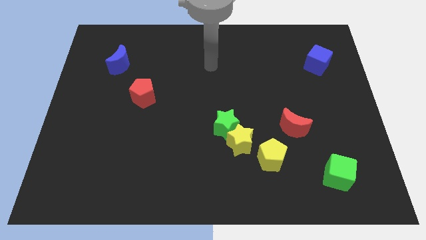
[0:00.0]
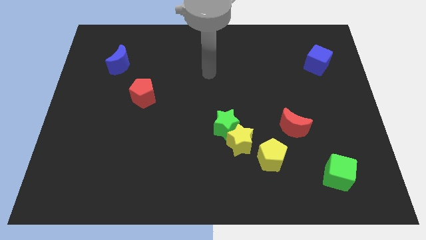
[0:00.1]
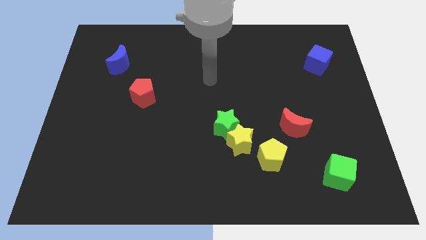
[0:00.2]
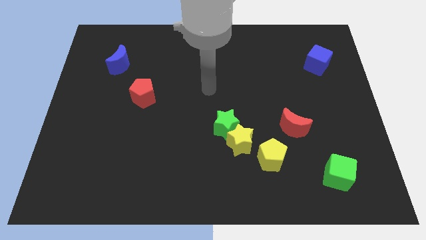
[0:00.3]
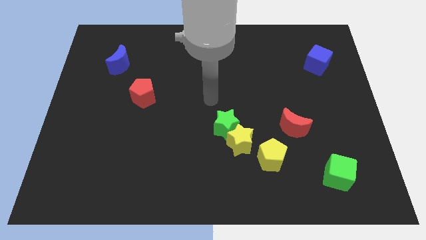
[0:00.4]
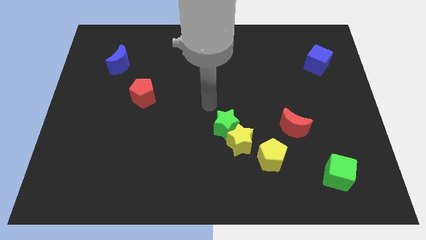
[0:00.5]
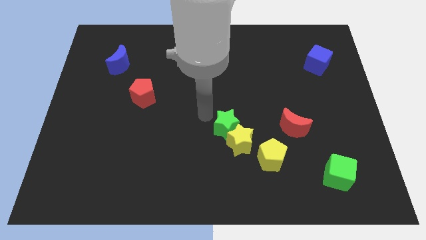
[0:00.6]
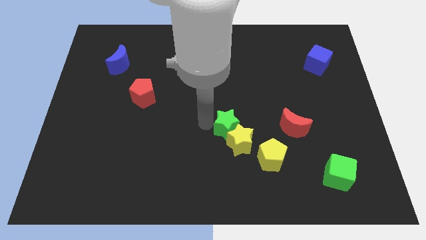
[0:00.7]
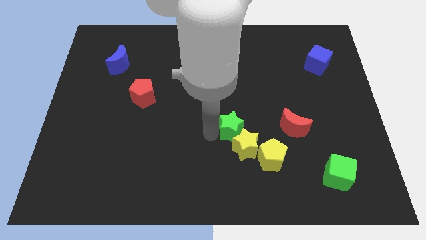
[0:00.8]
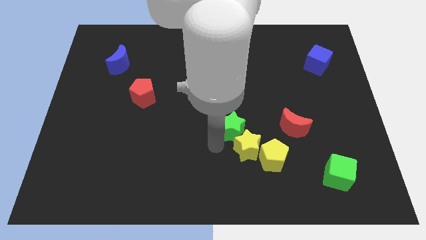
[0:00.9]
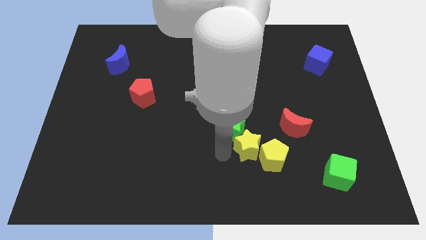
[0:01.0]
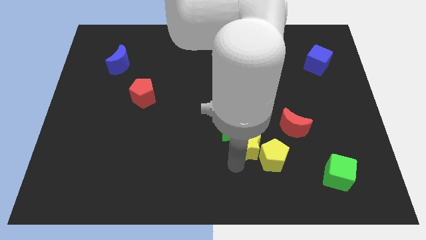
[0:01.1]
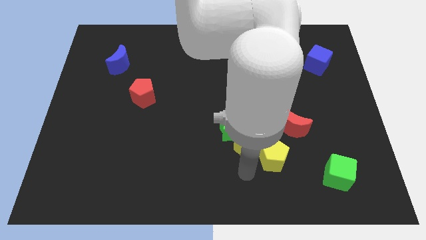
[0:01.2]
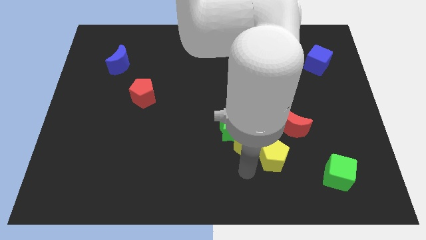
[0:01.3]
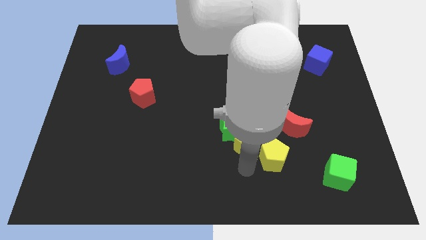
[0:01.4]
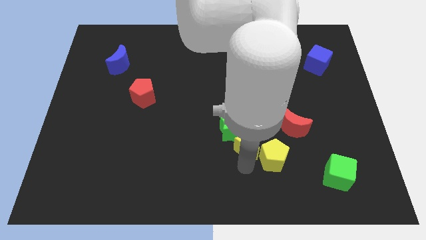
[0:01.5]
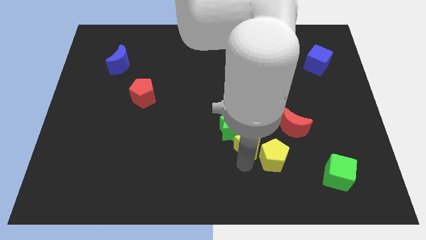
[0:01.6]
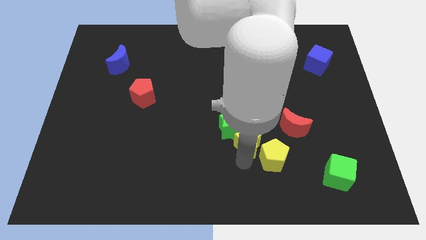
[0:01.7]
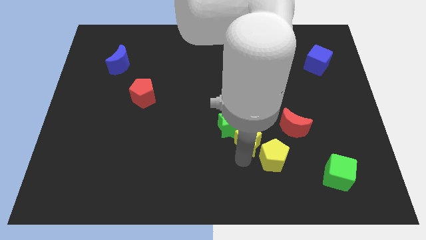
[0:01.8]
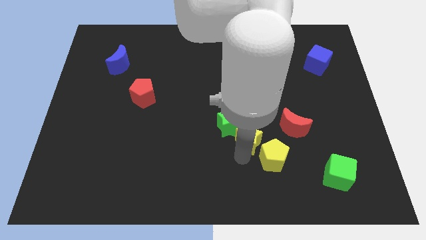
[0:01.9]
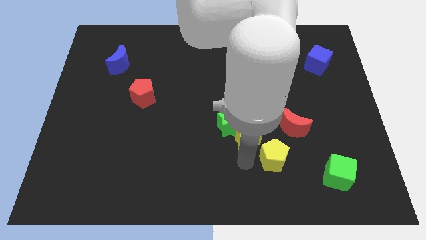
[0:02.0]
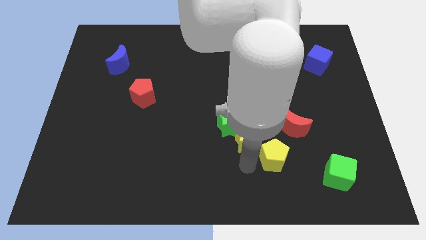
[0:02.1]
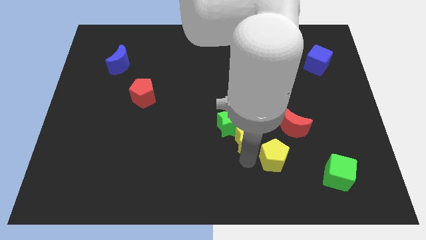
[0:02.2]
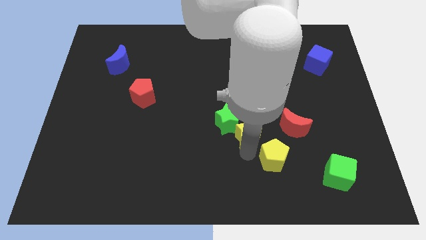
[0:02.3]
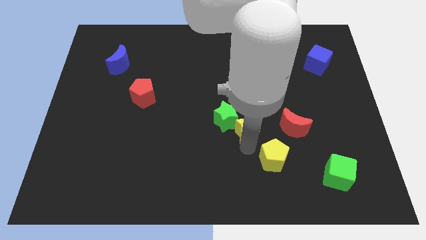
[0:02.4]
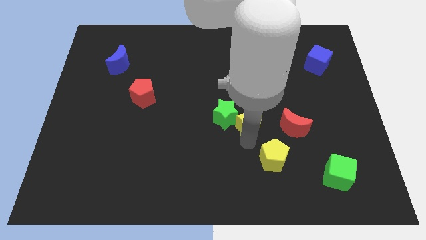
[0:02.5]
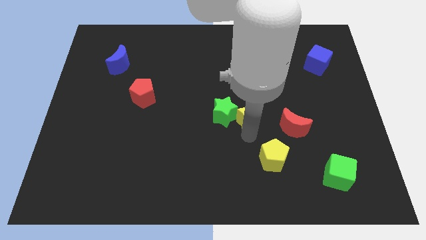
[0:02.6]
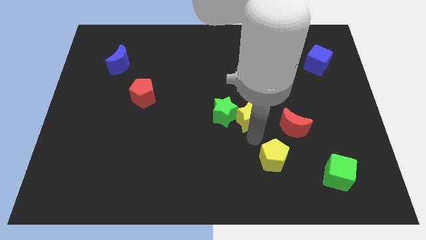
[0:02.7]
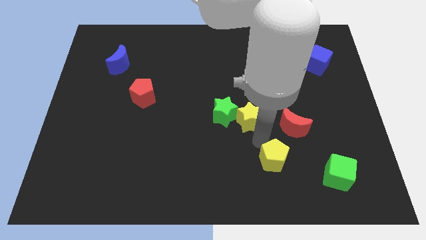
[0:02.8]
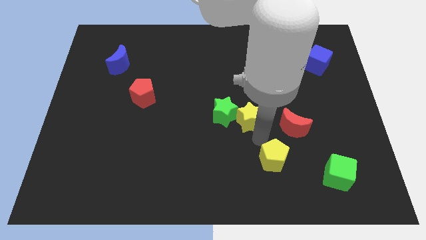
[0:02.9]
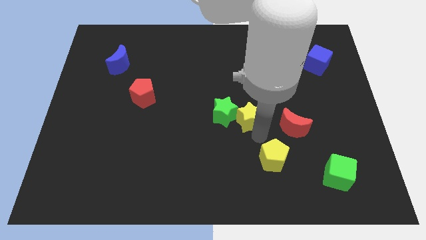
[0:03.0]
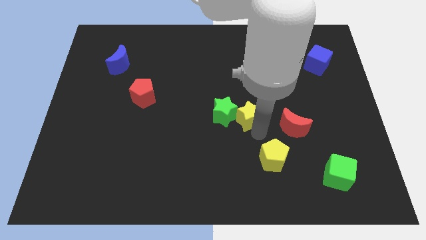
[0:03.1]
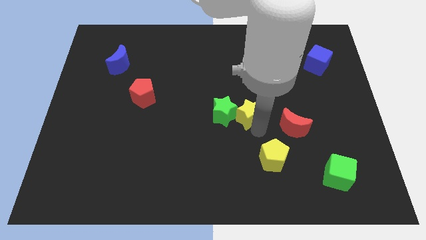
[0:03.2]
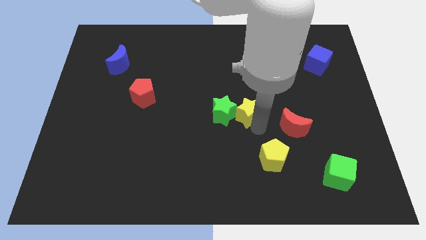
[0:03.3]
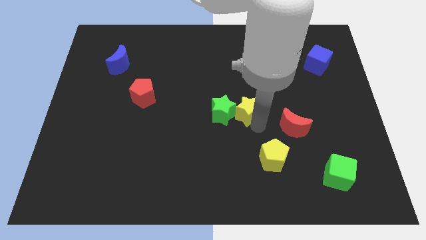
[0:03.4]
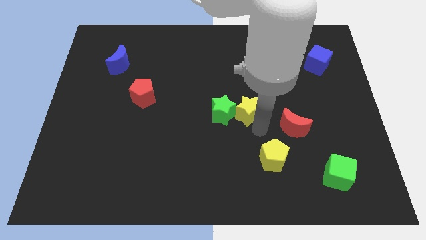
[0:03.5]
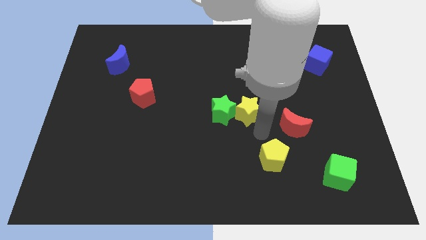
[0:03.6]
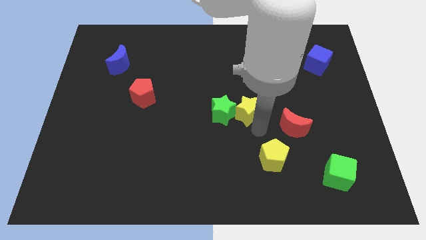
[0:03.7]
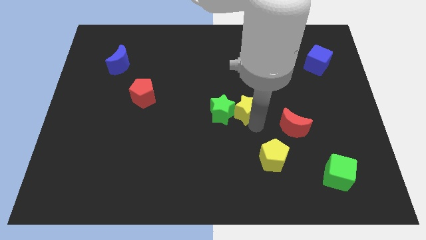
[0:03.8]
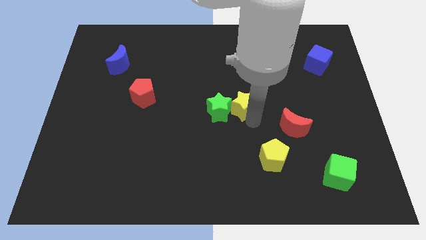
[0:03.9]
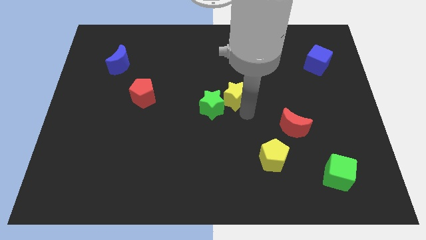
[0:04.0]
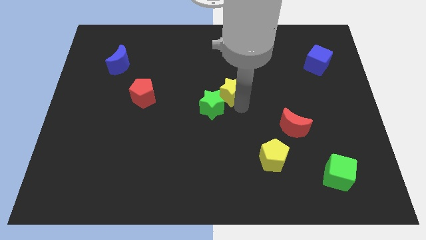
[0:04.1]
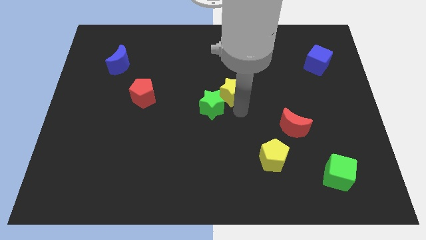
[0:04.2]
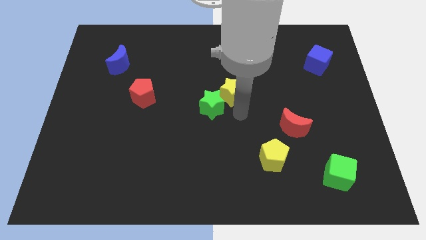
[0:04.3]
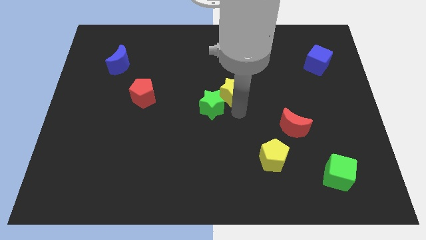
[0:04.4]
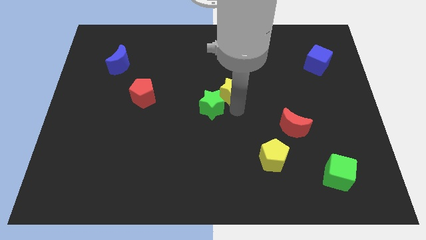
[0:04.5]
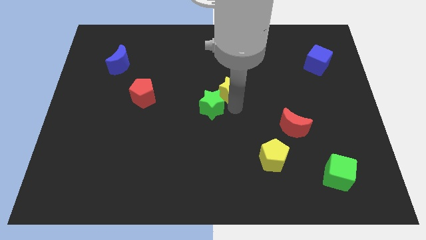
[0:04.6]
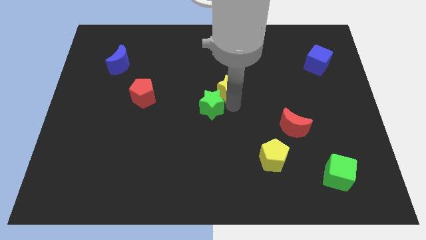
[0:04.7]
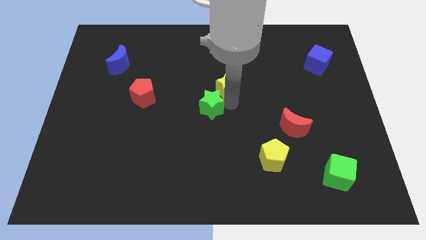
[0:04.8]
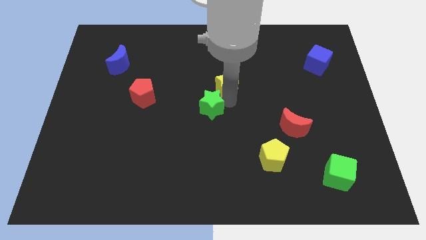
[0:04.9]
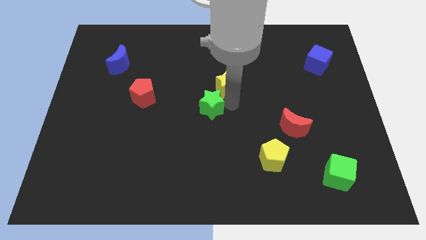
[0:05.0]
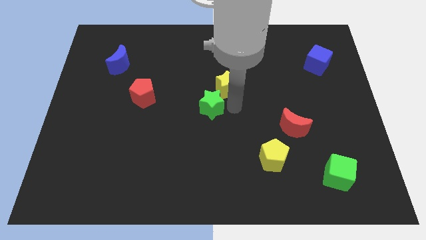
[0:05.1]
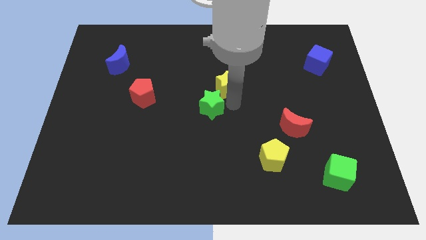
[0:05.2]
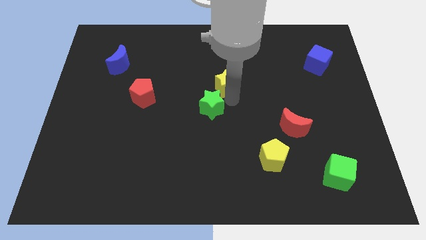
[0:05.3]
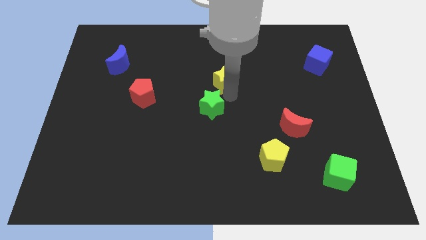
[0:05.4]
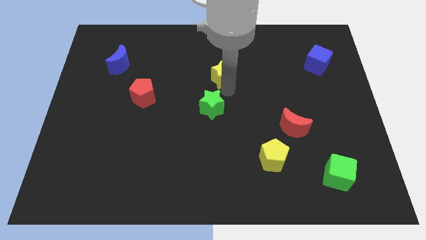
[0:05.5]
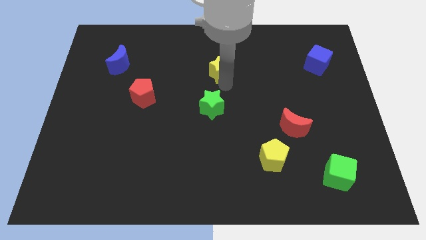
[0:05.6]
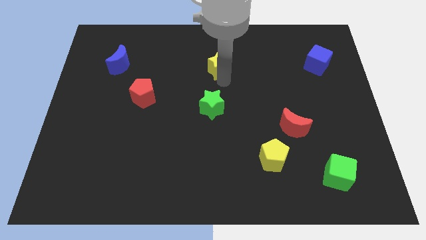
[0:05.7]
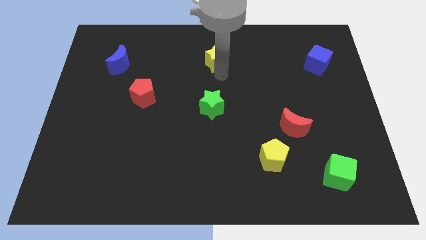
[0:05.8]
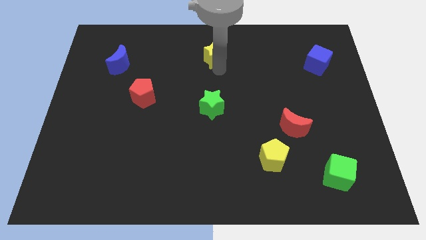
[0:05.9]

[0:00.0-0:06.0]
slide the yellow star to the top side
